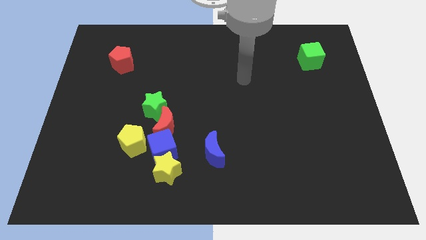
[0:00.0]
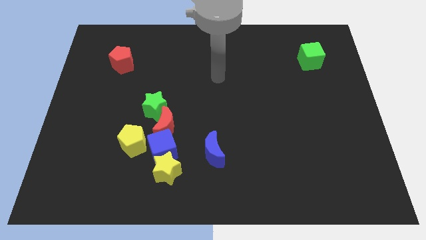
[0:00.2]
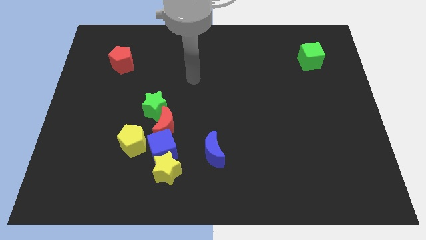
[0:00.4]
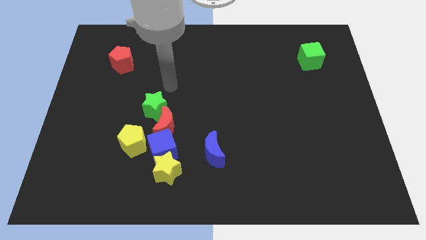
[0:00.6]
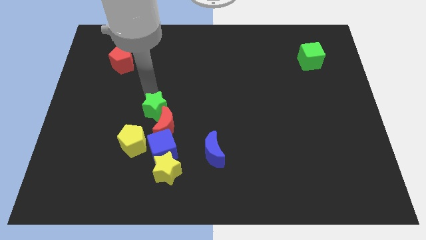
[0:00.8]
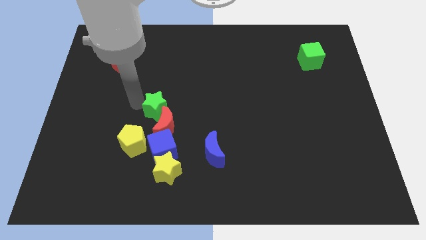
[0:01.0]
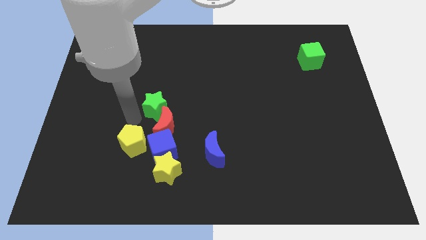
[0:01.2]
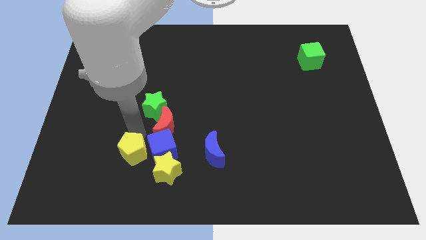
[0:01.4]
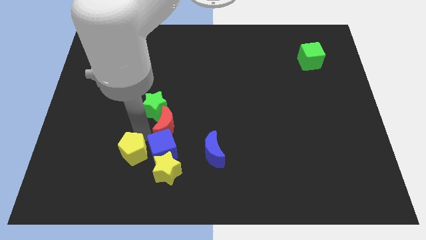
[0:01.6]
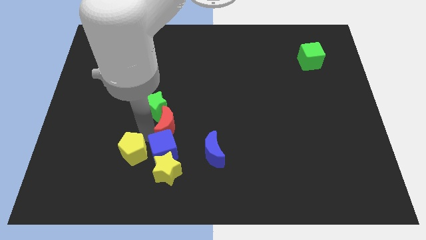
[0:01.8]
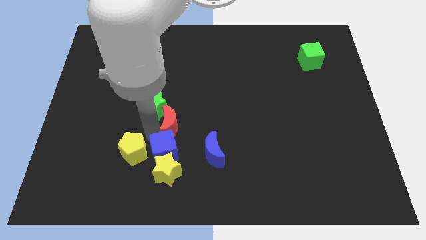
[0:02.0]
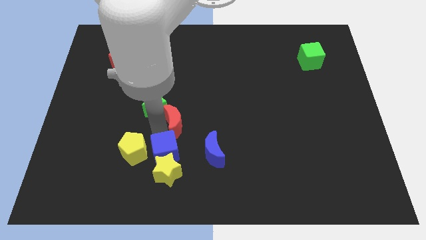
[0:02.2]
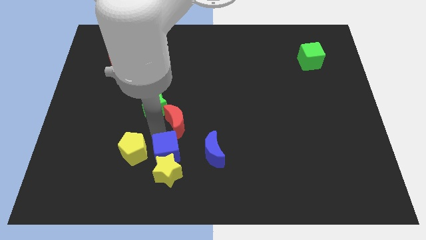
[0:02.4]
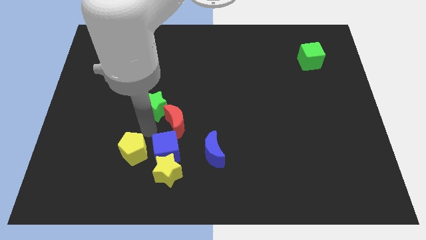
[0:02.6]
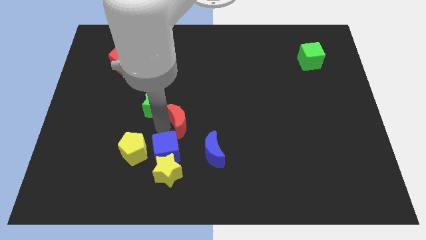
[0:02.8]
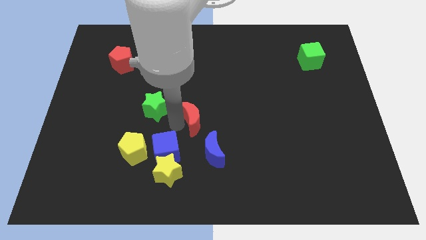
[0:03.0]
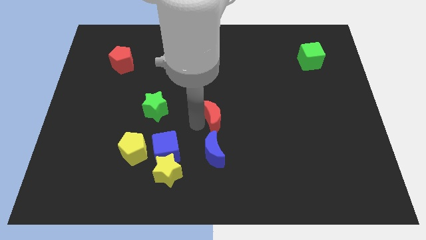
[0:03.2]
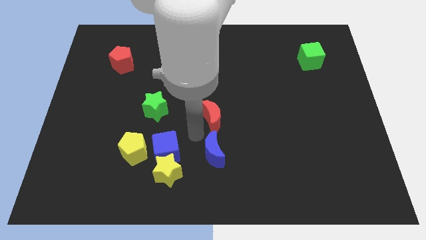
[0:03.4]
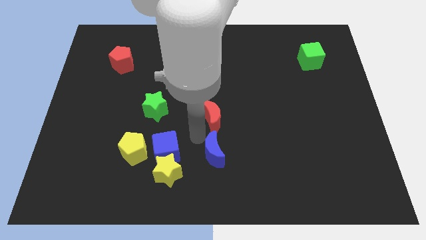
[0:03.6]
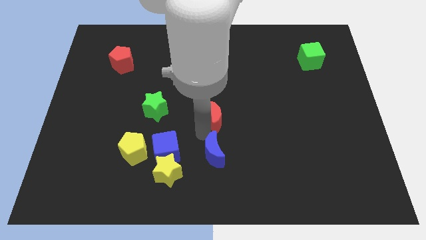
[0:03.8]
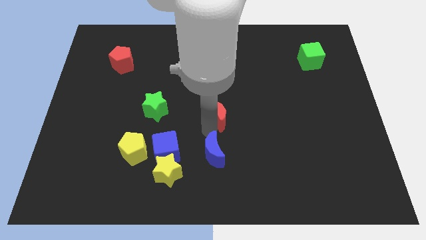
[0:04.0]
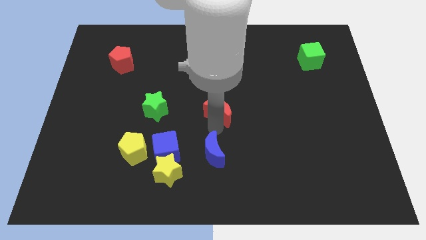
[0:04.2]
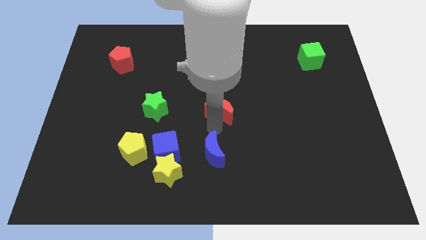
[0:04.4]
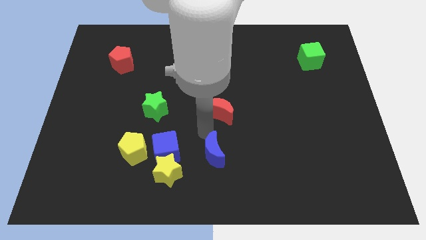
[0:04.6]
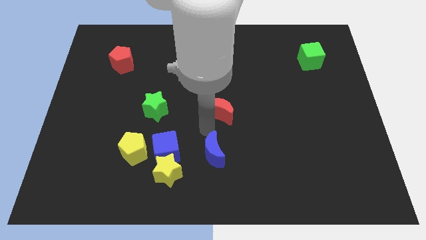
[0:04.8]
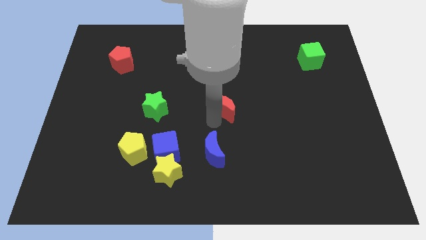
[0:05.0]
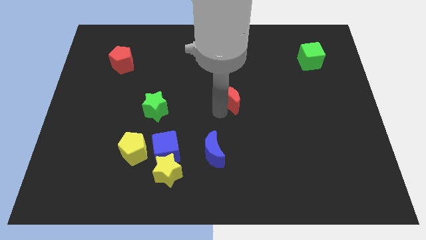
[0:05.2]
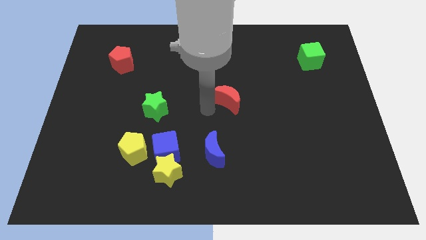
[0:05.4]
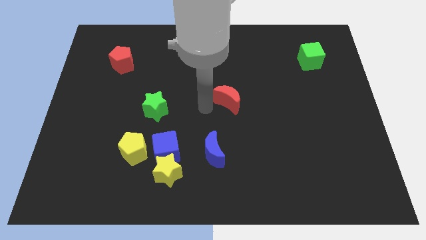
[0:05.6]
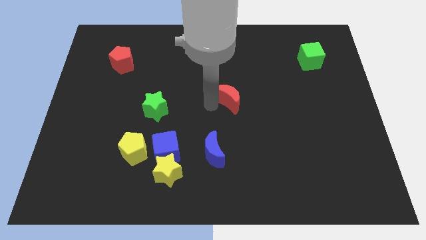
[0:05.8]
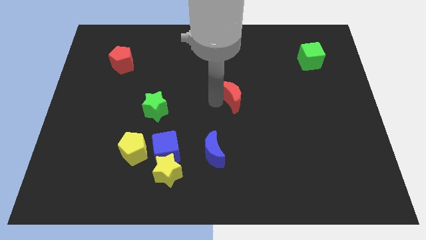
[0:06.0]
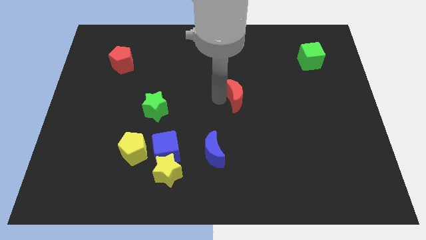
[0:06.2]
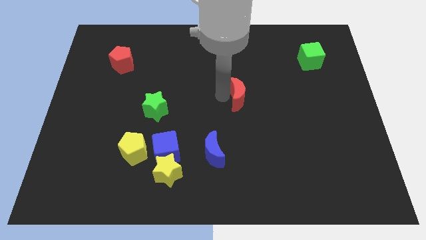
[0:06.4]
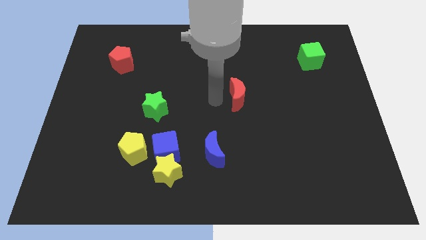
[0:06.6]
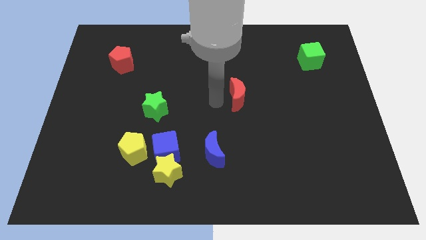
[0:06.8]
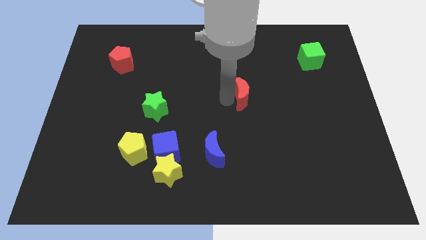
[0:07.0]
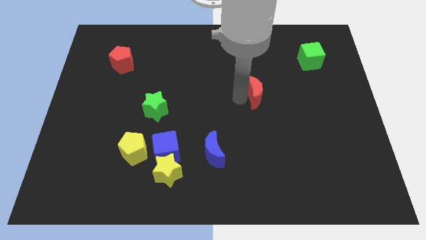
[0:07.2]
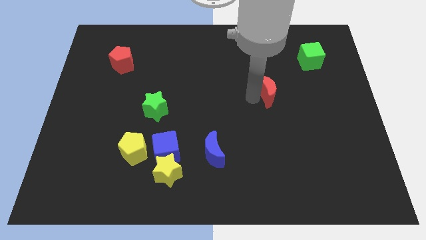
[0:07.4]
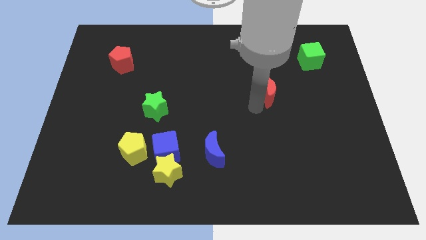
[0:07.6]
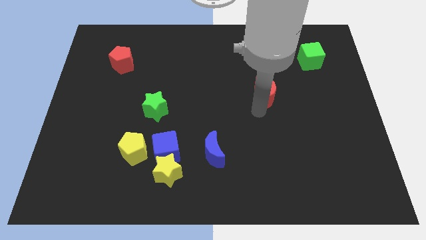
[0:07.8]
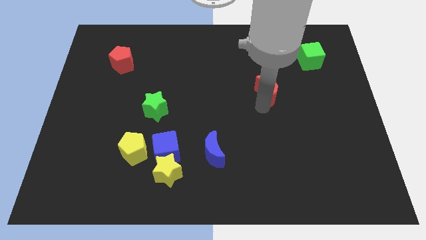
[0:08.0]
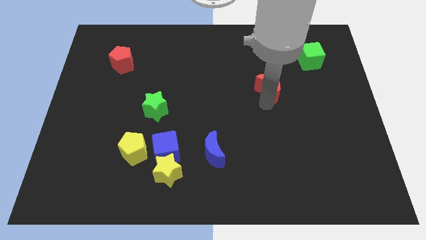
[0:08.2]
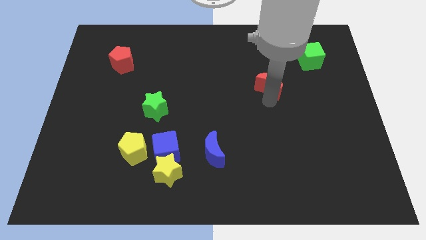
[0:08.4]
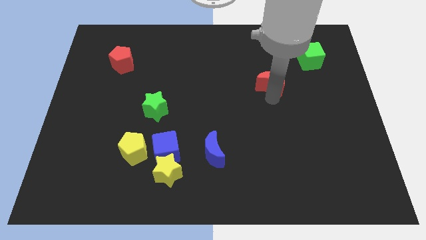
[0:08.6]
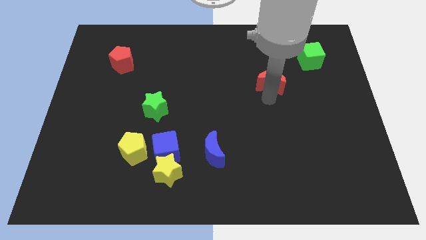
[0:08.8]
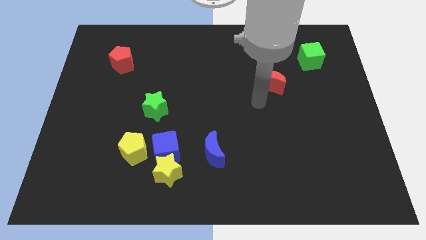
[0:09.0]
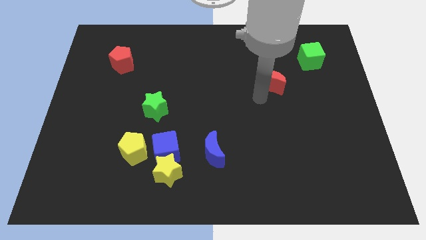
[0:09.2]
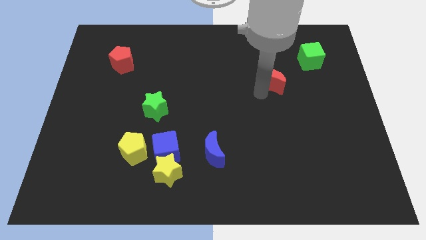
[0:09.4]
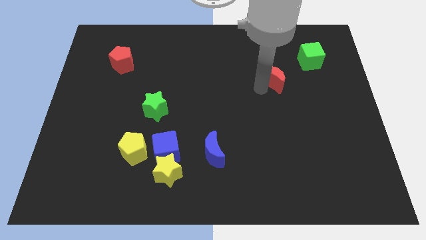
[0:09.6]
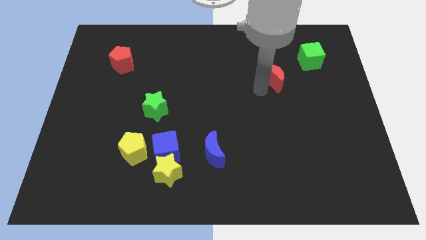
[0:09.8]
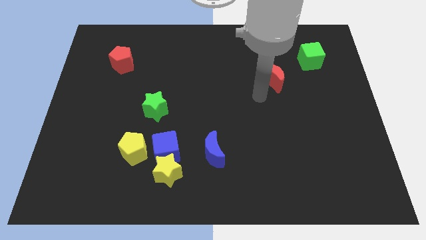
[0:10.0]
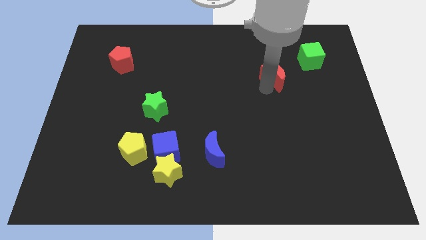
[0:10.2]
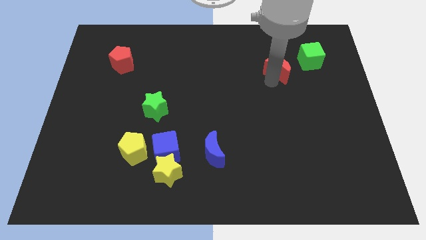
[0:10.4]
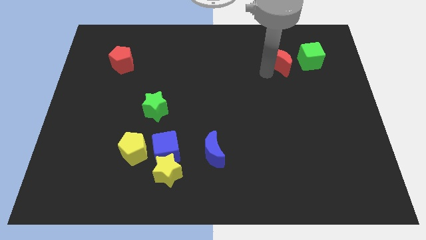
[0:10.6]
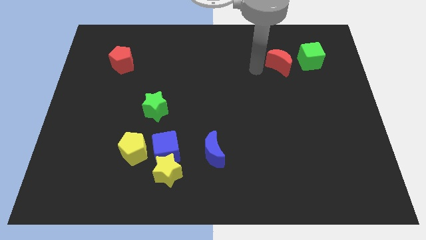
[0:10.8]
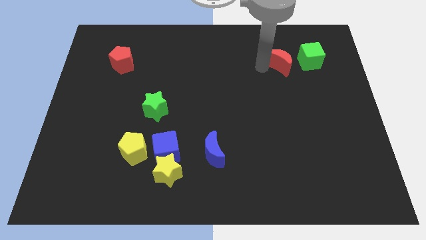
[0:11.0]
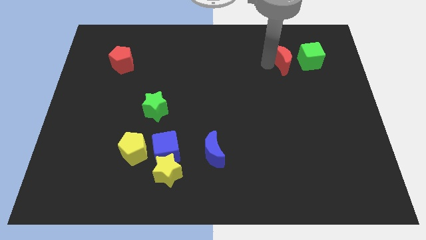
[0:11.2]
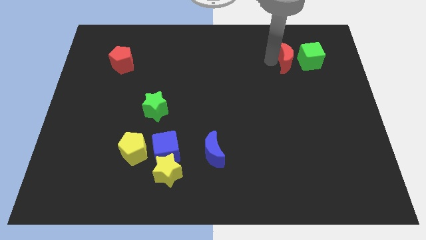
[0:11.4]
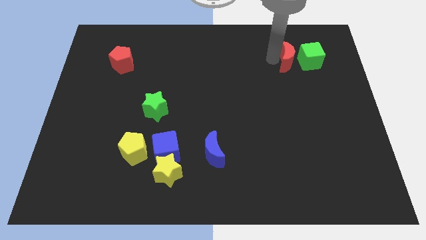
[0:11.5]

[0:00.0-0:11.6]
push the red moon towards the green cube

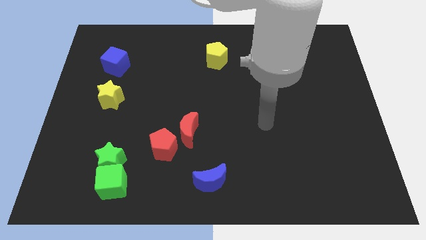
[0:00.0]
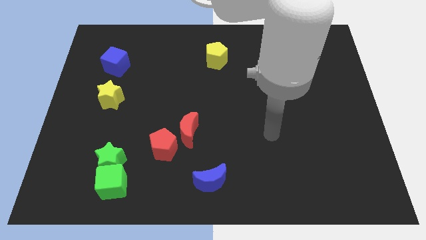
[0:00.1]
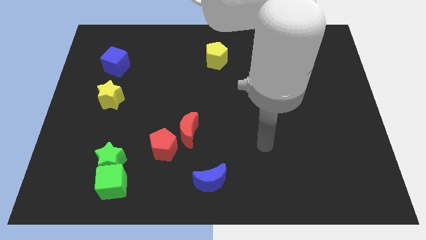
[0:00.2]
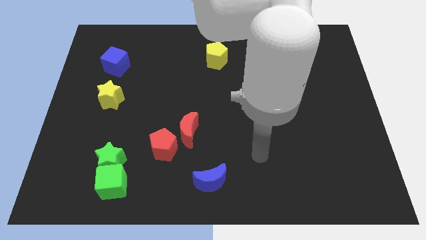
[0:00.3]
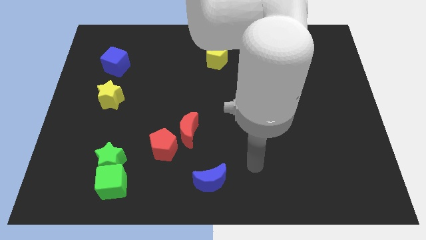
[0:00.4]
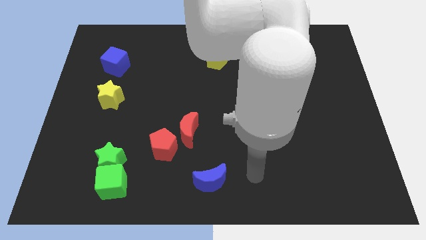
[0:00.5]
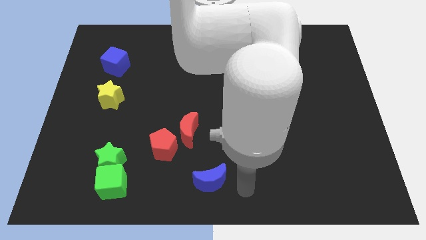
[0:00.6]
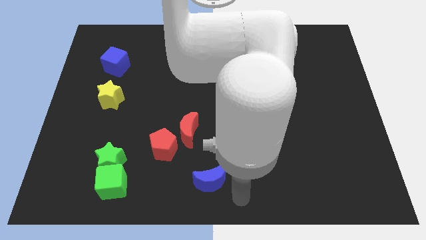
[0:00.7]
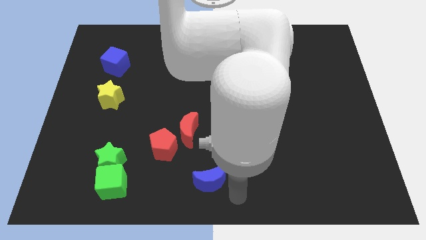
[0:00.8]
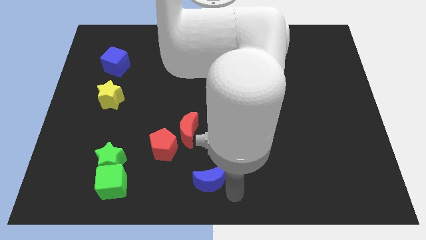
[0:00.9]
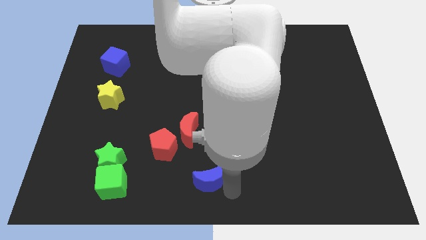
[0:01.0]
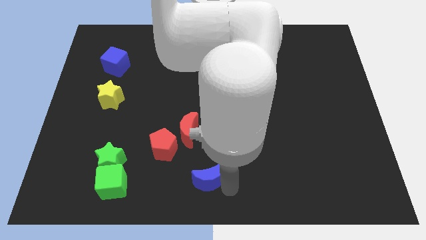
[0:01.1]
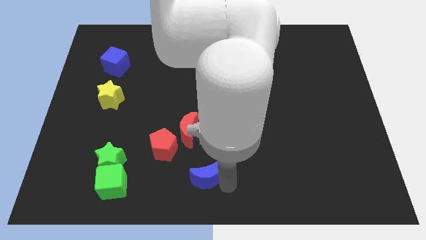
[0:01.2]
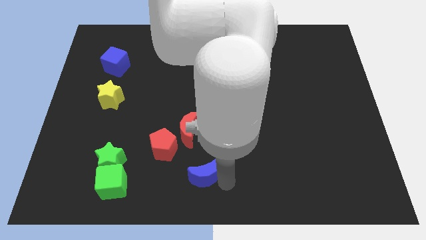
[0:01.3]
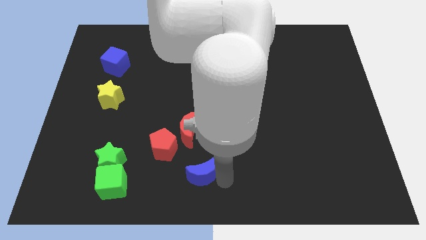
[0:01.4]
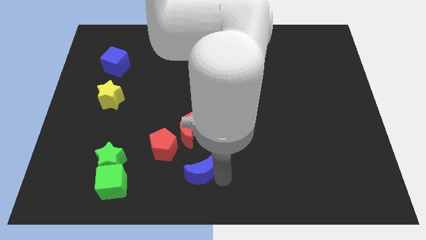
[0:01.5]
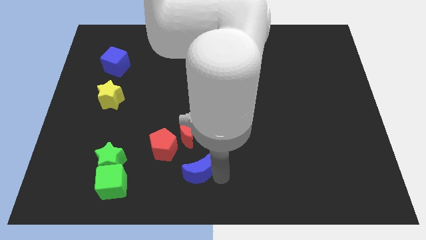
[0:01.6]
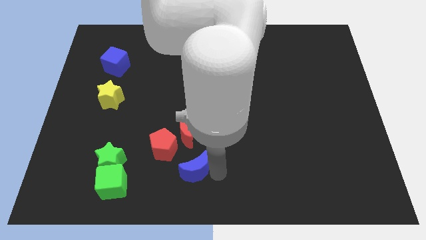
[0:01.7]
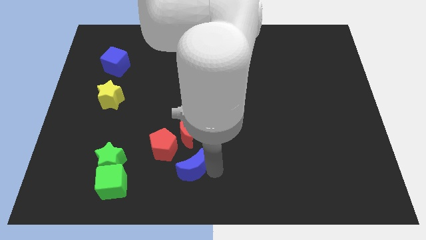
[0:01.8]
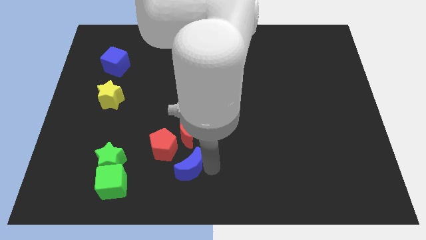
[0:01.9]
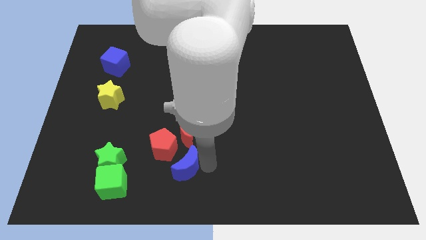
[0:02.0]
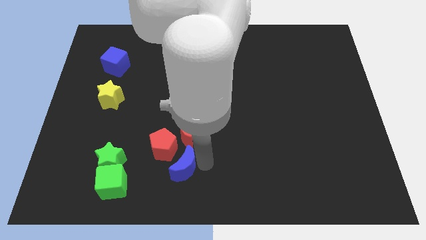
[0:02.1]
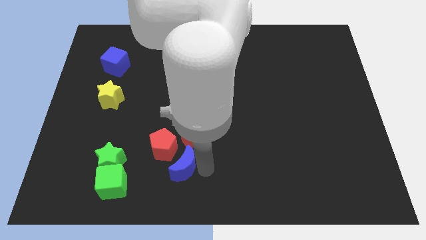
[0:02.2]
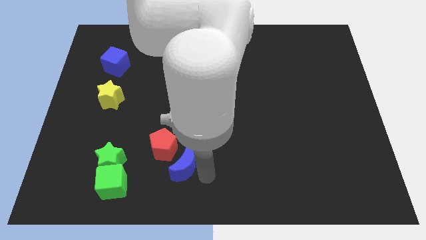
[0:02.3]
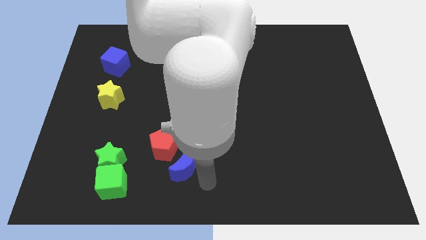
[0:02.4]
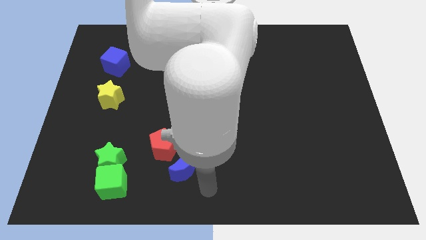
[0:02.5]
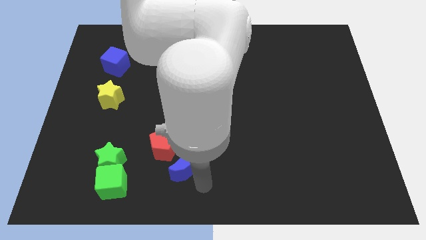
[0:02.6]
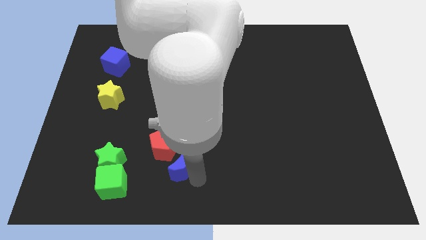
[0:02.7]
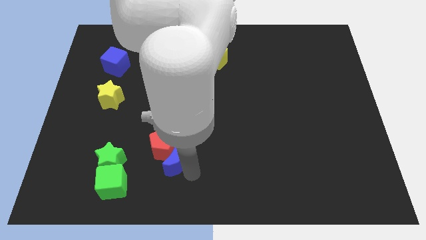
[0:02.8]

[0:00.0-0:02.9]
put the blue moon to the red pentagon
